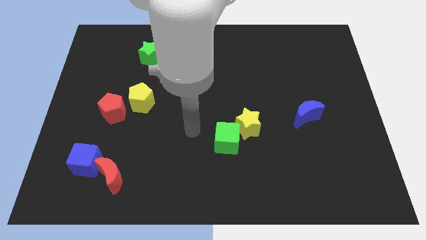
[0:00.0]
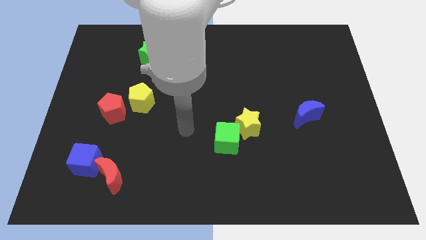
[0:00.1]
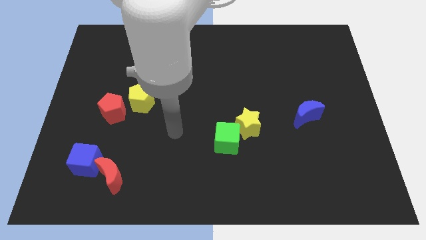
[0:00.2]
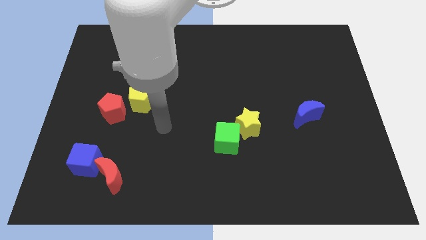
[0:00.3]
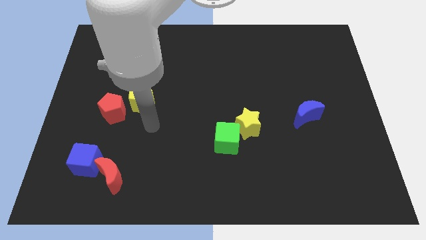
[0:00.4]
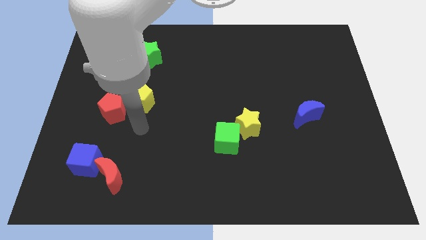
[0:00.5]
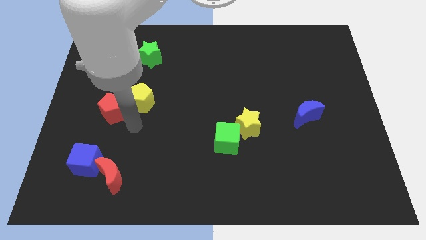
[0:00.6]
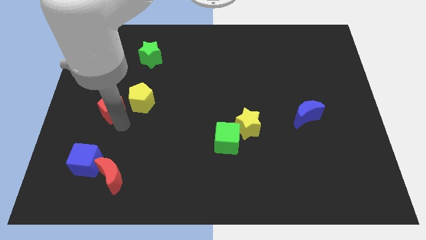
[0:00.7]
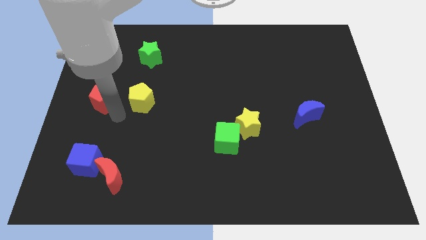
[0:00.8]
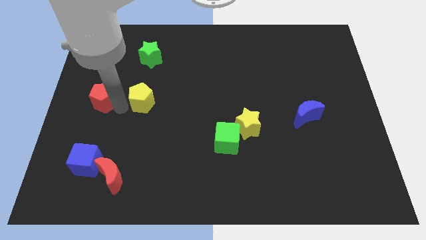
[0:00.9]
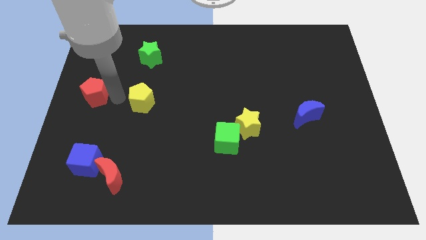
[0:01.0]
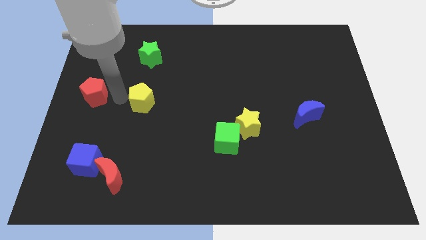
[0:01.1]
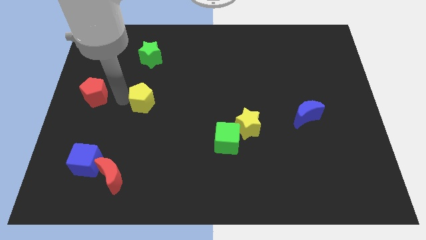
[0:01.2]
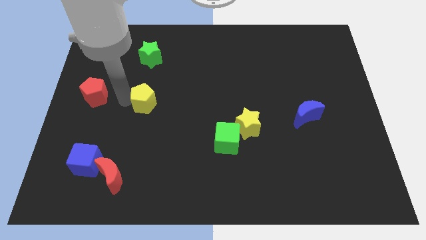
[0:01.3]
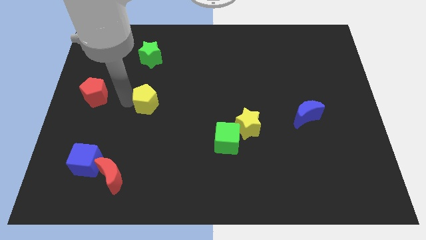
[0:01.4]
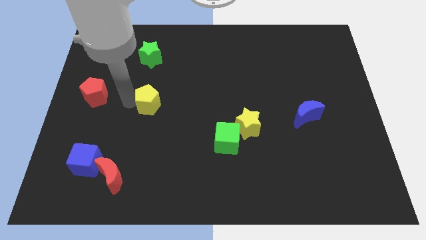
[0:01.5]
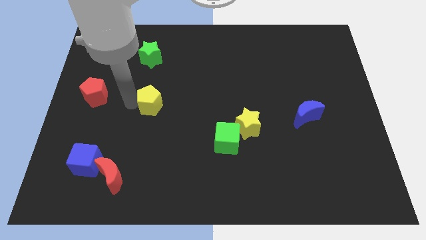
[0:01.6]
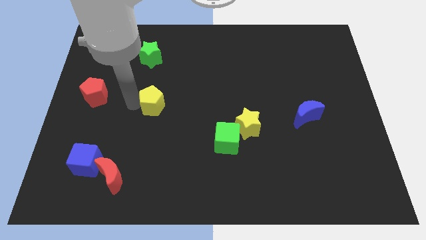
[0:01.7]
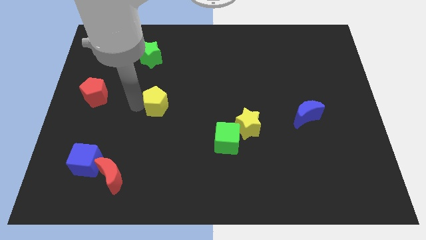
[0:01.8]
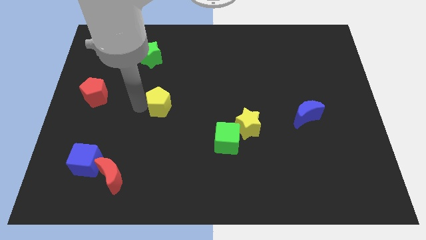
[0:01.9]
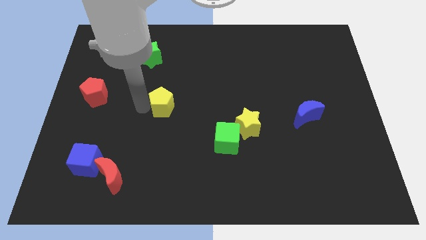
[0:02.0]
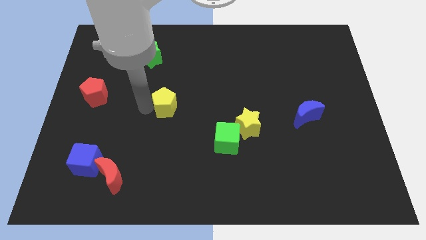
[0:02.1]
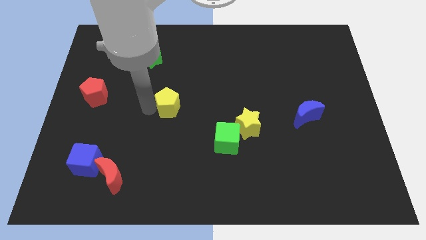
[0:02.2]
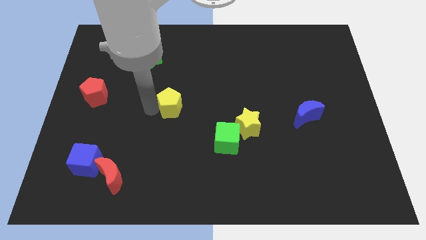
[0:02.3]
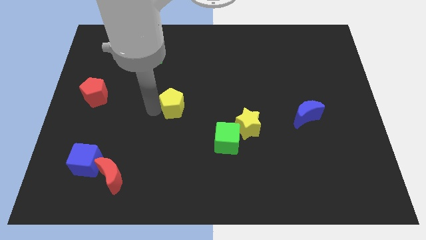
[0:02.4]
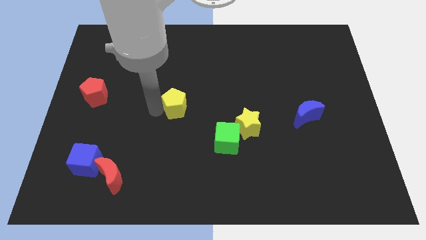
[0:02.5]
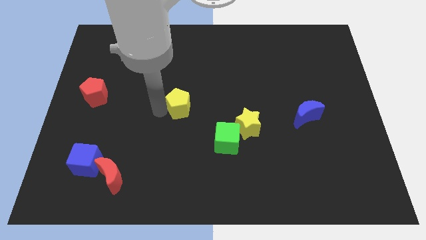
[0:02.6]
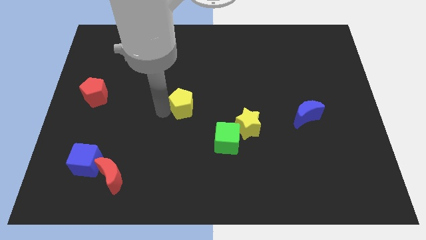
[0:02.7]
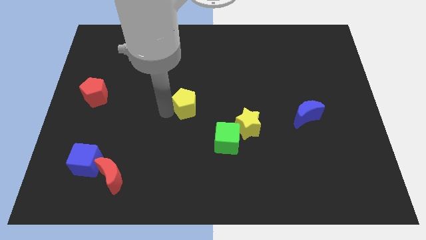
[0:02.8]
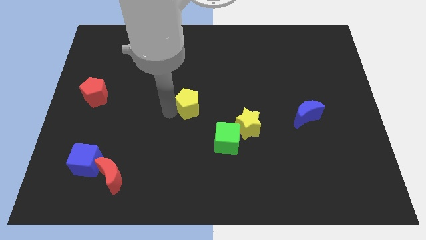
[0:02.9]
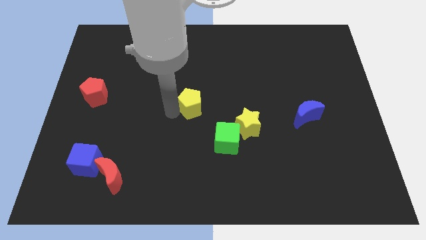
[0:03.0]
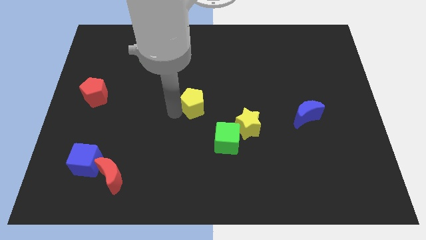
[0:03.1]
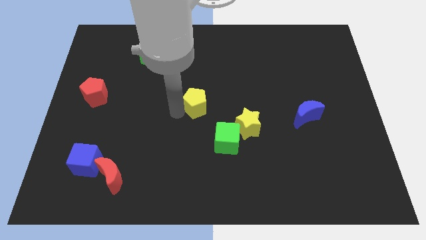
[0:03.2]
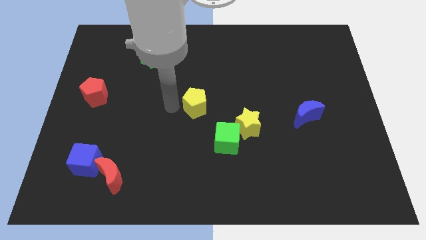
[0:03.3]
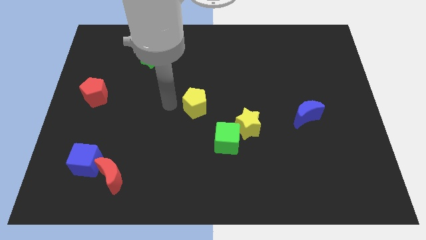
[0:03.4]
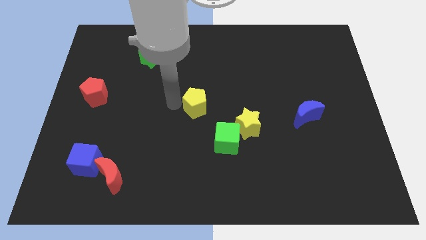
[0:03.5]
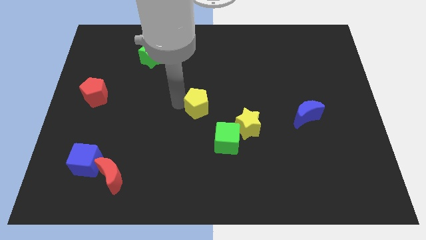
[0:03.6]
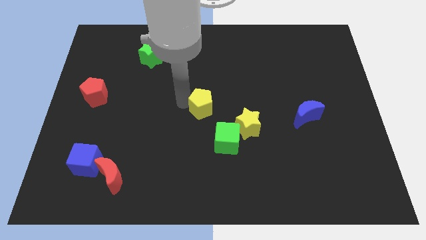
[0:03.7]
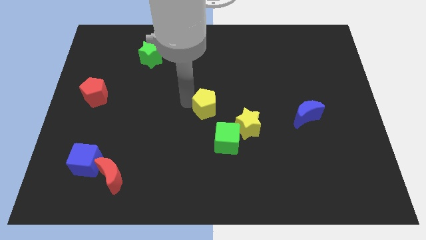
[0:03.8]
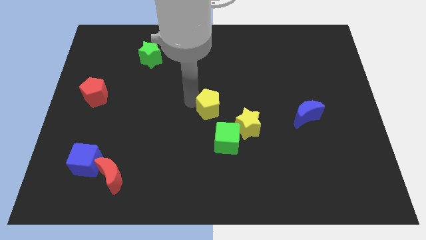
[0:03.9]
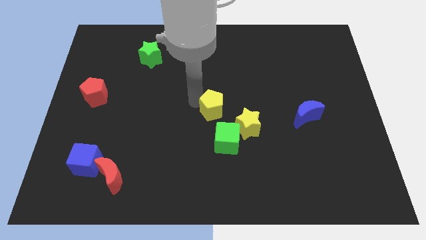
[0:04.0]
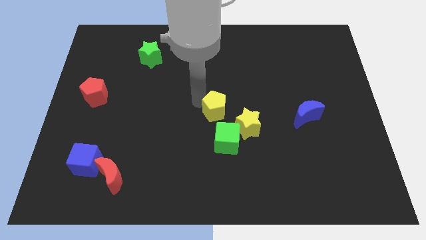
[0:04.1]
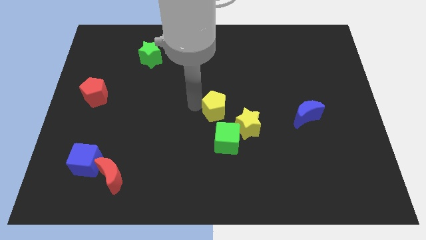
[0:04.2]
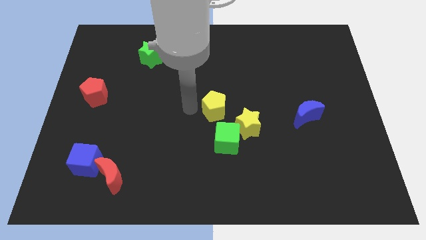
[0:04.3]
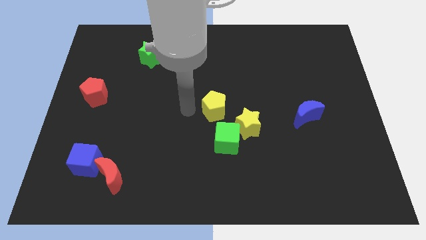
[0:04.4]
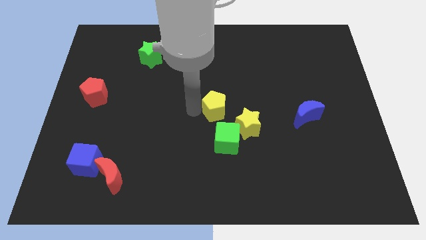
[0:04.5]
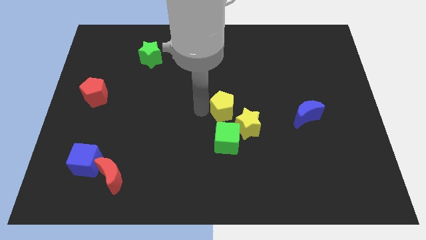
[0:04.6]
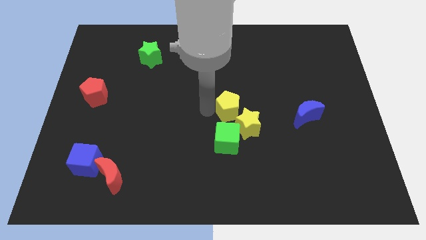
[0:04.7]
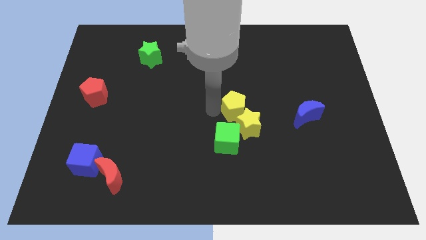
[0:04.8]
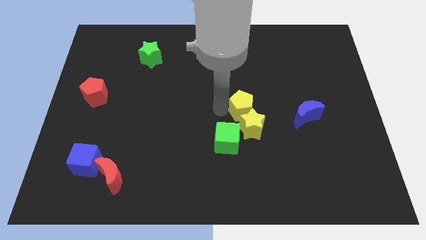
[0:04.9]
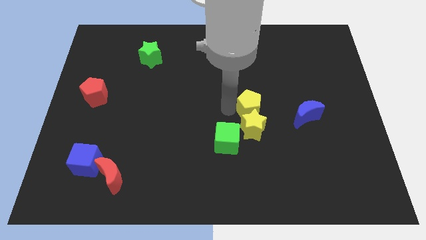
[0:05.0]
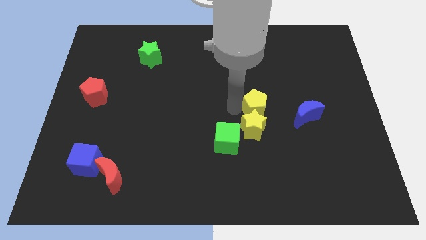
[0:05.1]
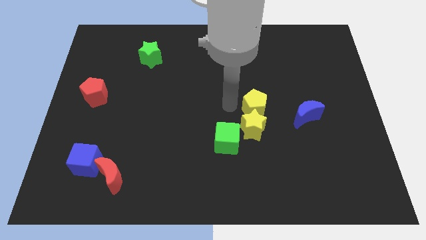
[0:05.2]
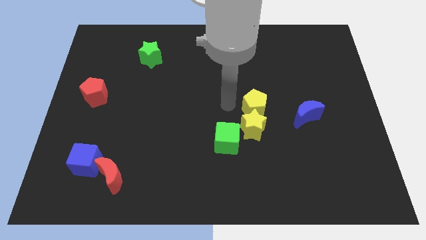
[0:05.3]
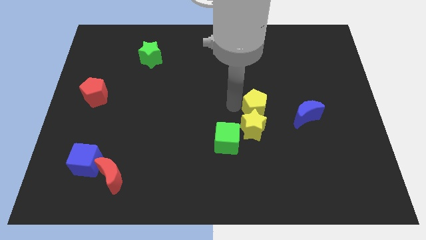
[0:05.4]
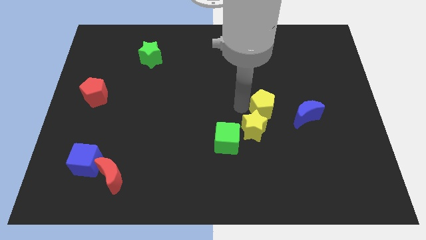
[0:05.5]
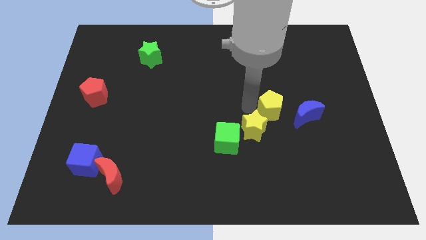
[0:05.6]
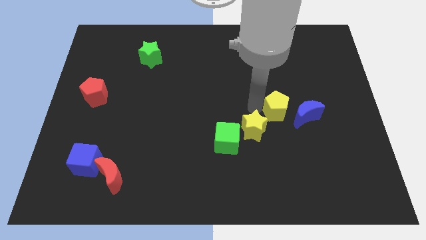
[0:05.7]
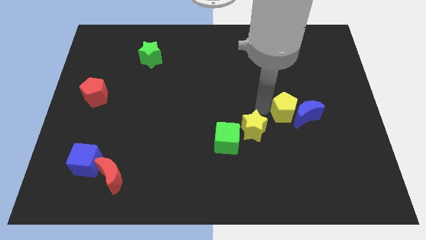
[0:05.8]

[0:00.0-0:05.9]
move the yellow pentagon next to the blue moon
